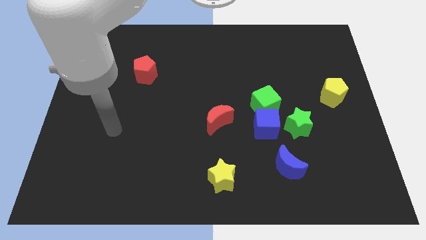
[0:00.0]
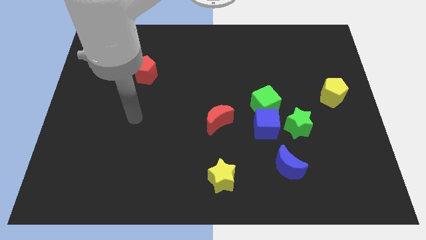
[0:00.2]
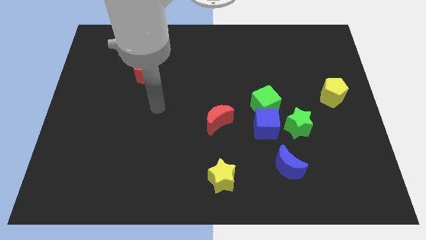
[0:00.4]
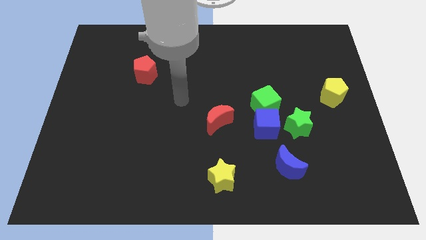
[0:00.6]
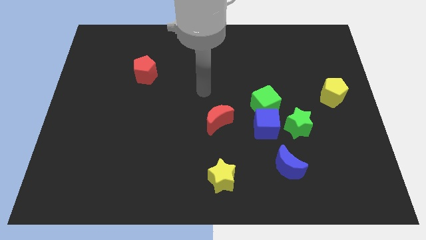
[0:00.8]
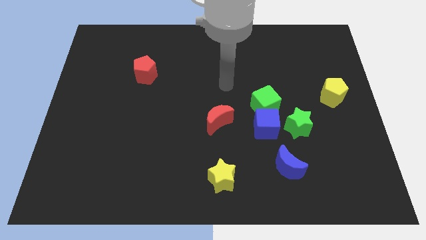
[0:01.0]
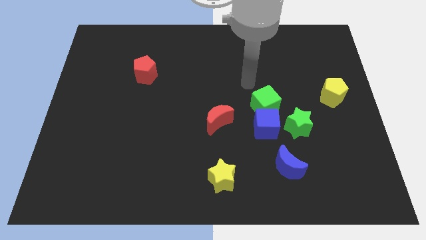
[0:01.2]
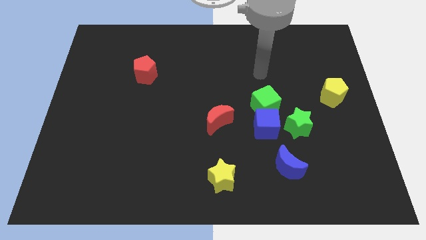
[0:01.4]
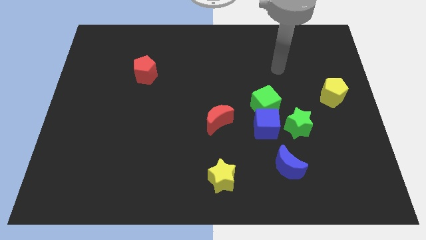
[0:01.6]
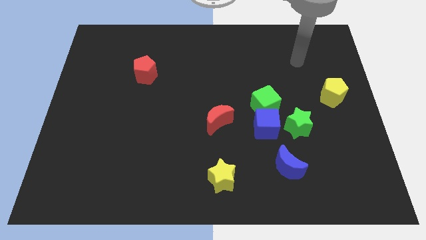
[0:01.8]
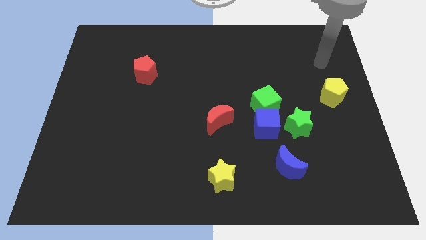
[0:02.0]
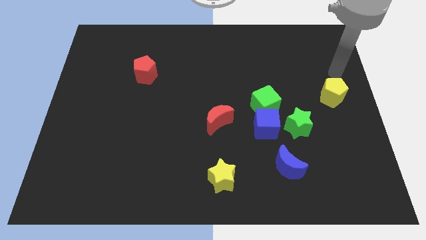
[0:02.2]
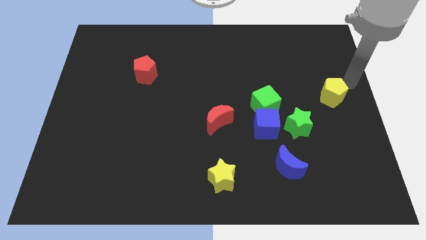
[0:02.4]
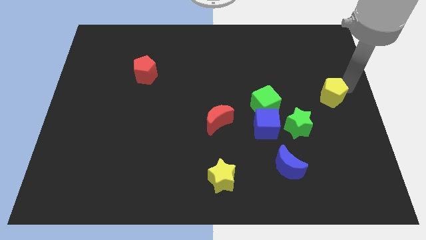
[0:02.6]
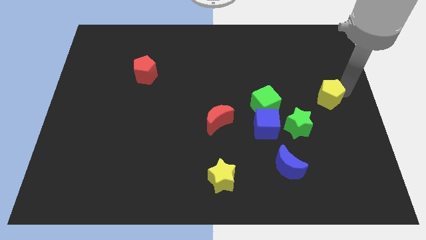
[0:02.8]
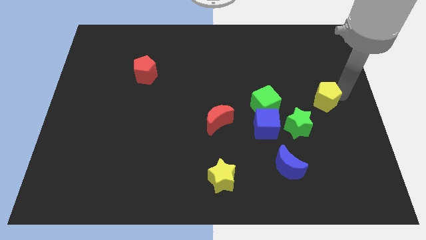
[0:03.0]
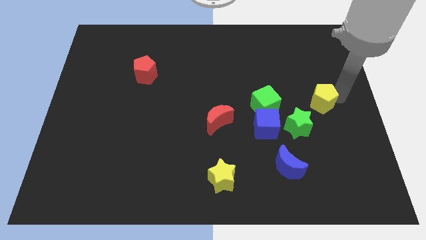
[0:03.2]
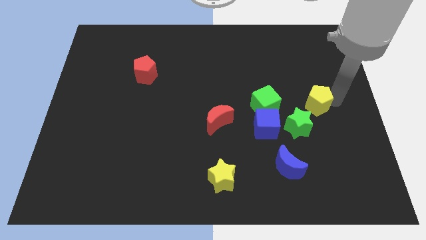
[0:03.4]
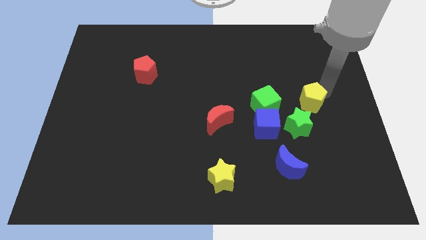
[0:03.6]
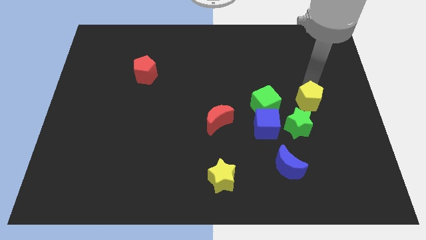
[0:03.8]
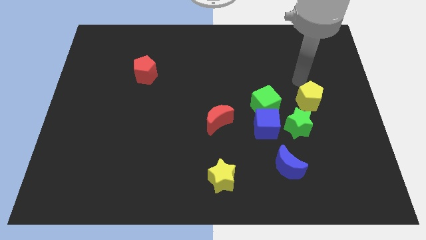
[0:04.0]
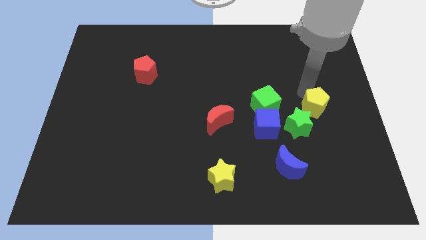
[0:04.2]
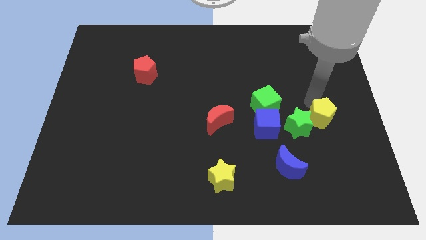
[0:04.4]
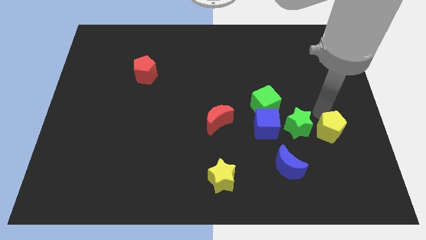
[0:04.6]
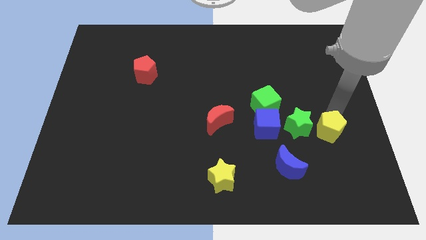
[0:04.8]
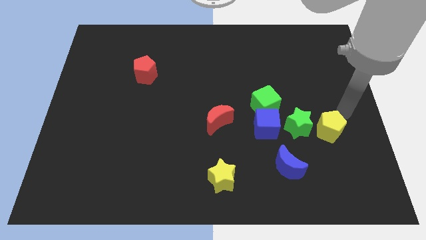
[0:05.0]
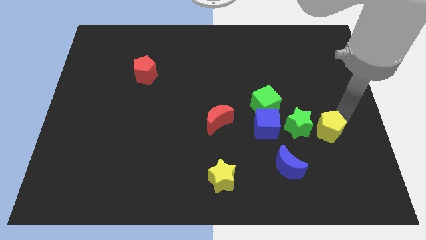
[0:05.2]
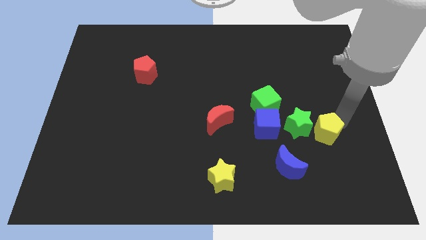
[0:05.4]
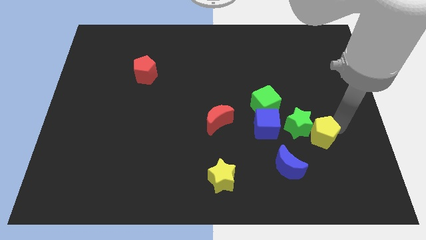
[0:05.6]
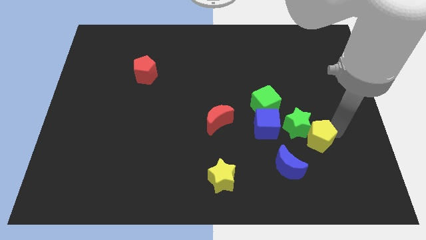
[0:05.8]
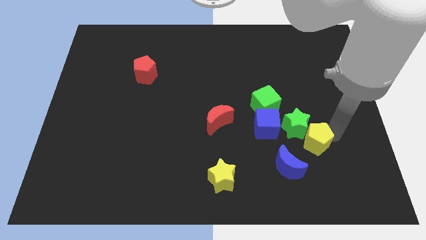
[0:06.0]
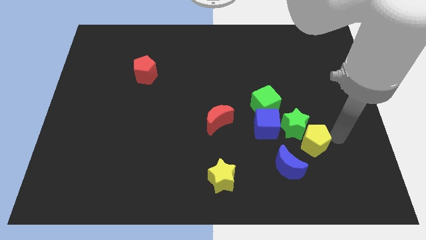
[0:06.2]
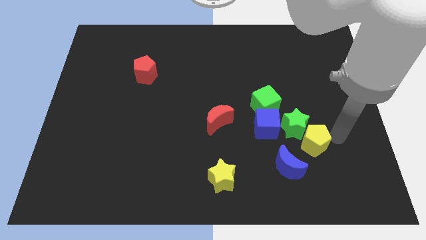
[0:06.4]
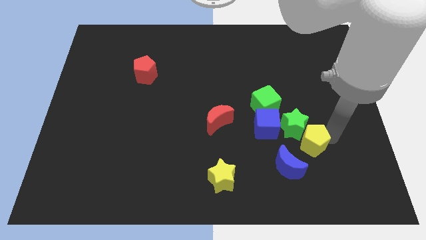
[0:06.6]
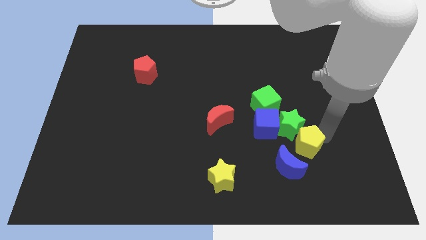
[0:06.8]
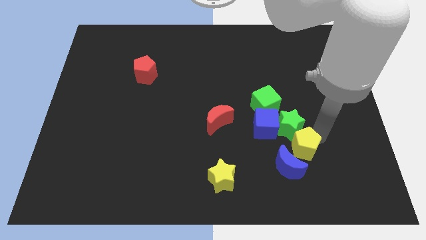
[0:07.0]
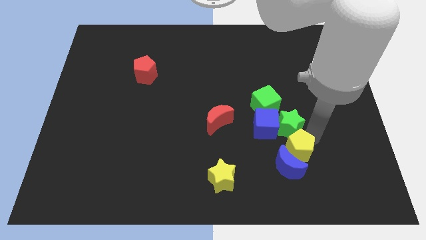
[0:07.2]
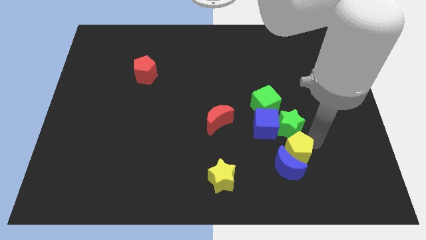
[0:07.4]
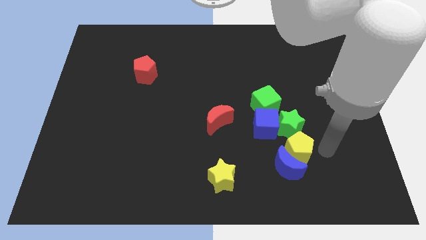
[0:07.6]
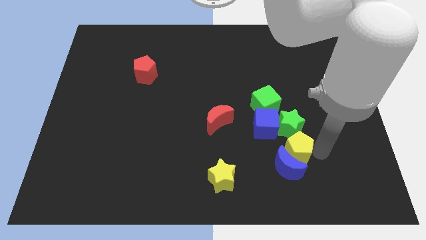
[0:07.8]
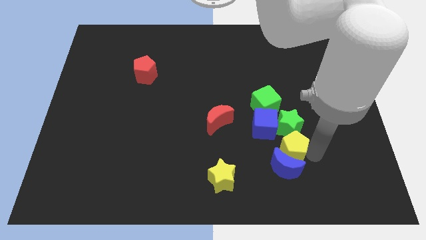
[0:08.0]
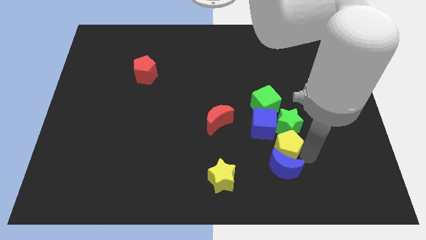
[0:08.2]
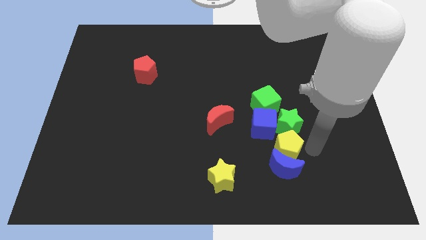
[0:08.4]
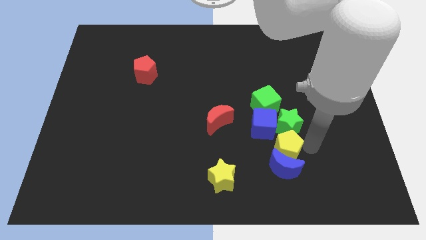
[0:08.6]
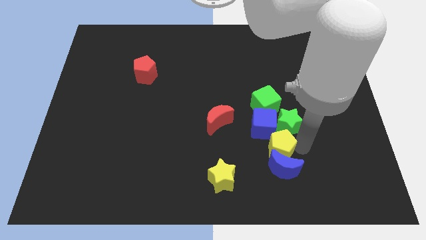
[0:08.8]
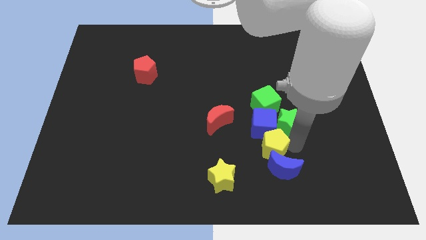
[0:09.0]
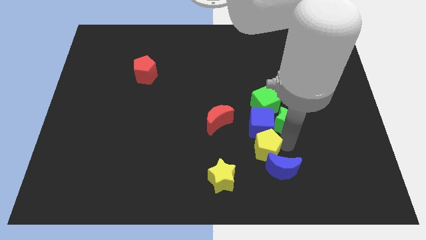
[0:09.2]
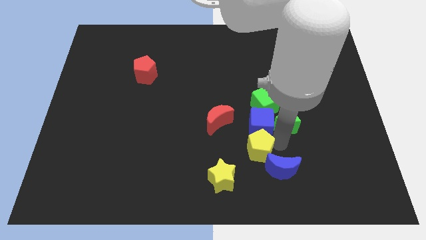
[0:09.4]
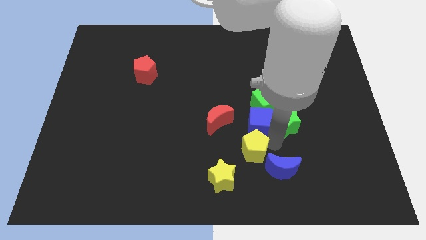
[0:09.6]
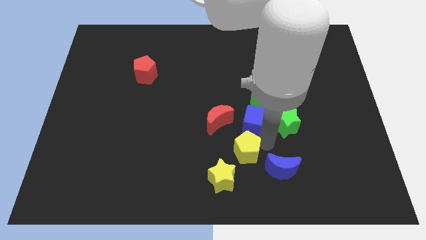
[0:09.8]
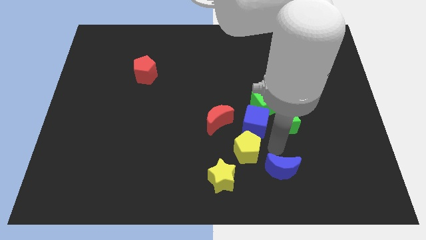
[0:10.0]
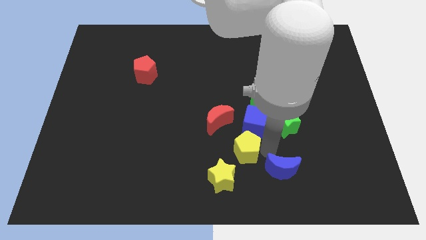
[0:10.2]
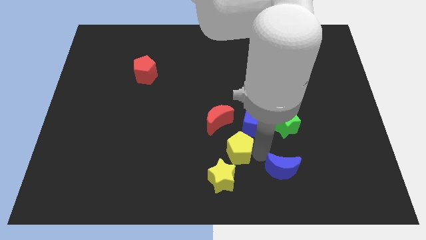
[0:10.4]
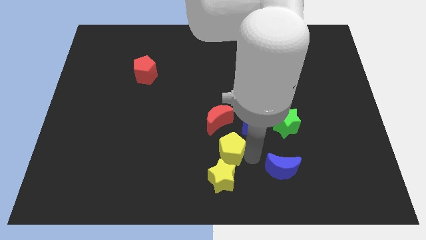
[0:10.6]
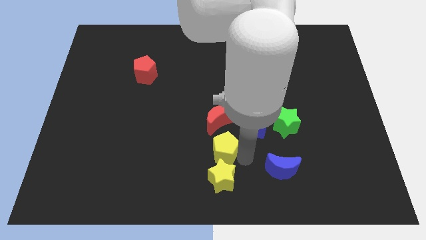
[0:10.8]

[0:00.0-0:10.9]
put the yellow pentagon to the top left side of the yellow star

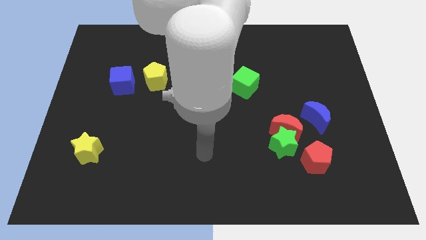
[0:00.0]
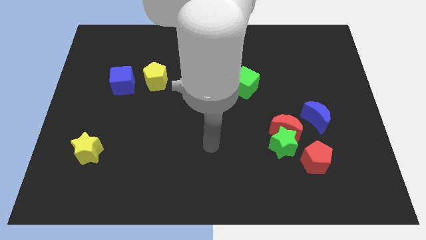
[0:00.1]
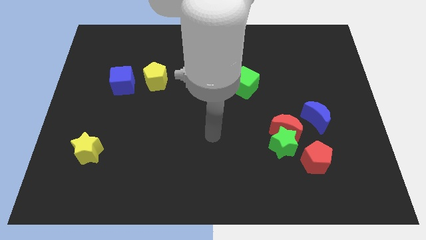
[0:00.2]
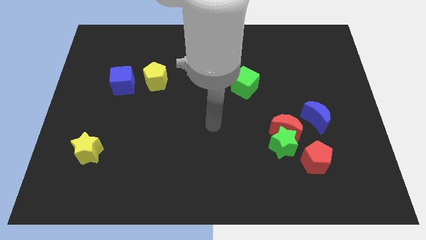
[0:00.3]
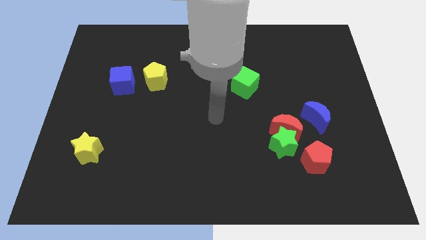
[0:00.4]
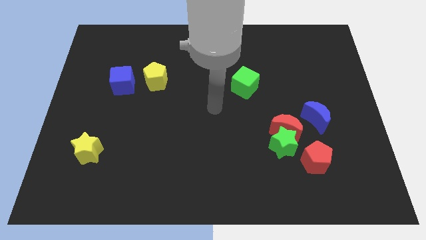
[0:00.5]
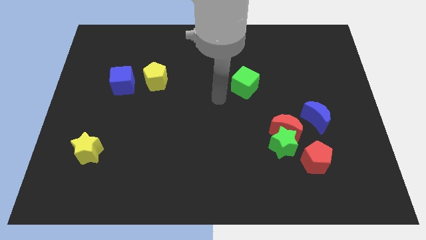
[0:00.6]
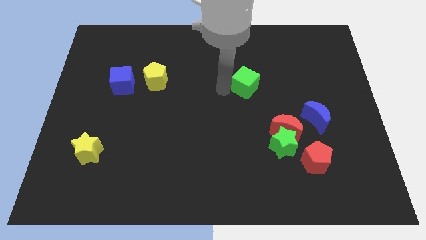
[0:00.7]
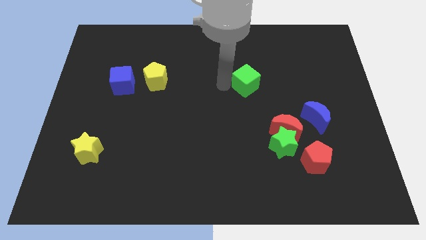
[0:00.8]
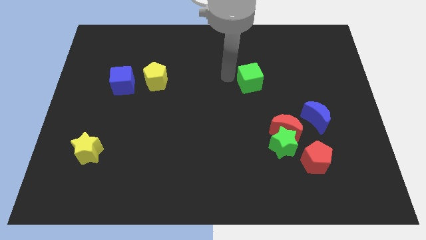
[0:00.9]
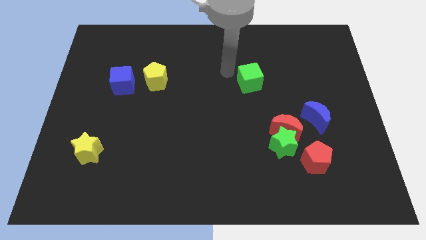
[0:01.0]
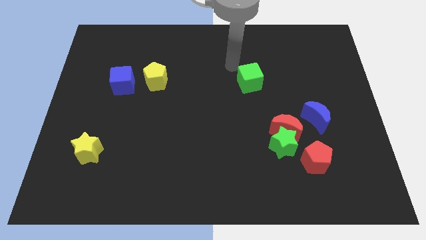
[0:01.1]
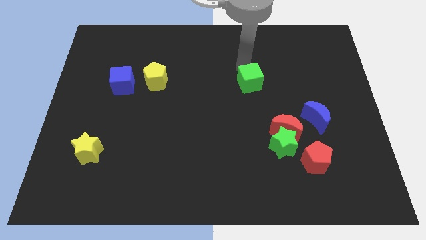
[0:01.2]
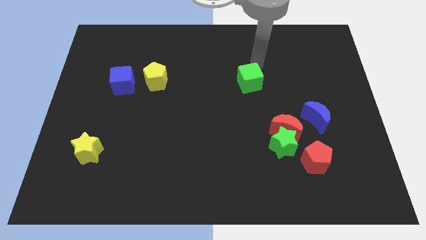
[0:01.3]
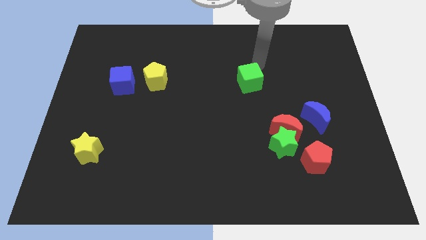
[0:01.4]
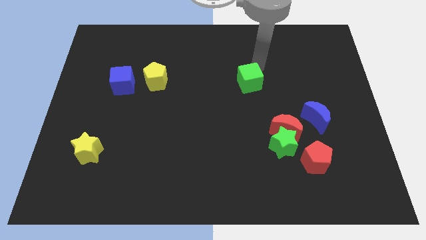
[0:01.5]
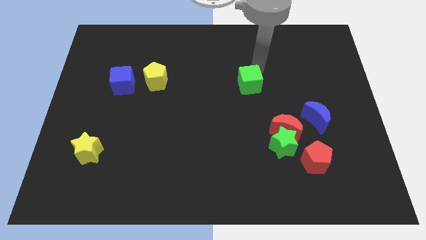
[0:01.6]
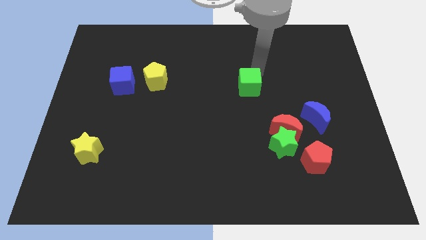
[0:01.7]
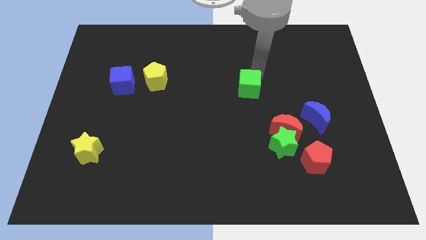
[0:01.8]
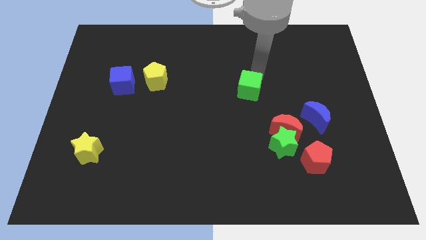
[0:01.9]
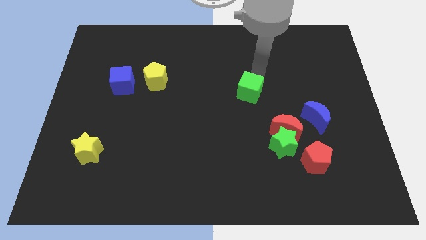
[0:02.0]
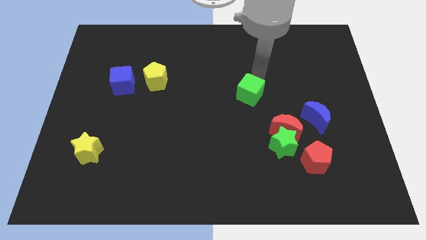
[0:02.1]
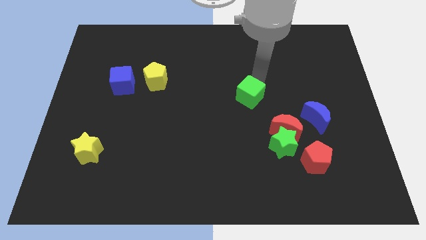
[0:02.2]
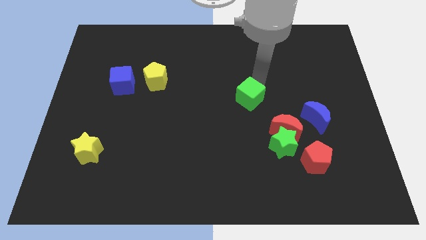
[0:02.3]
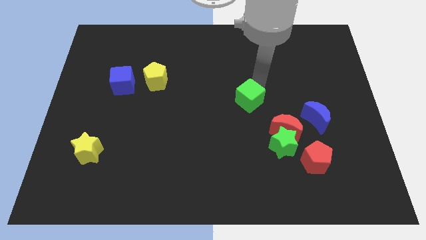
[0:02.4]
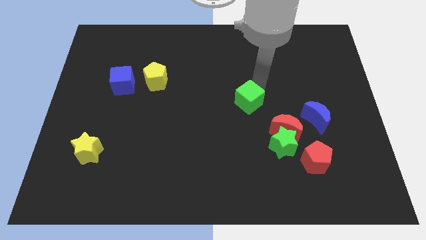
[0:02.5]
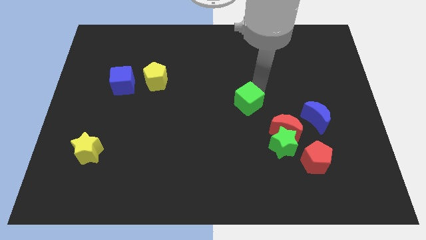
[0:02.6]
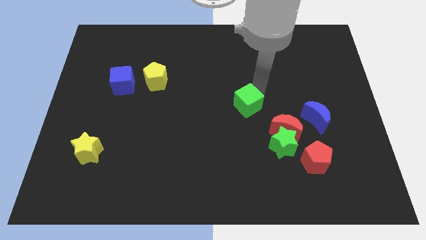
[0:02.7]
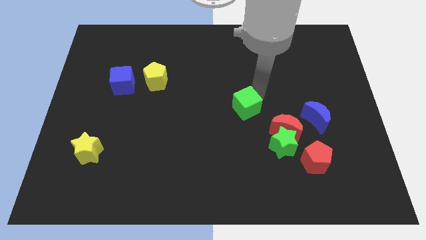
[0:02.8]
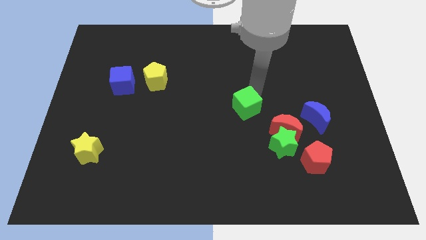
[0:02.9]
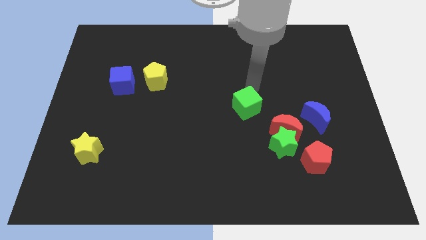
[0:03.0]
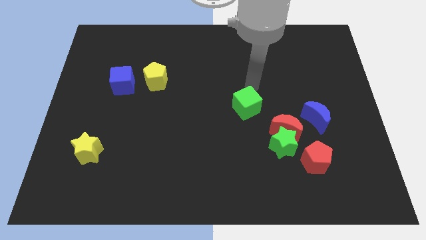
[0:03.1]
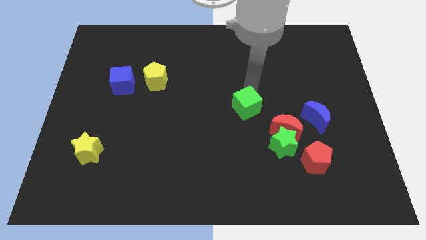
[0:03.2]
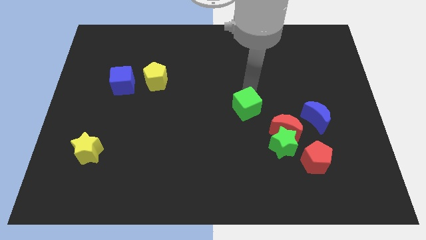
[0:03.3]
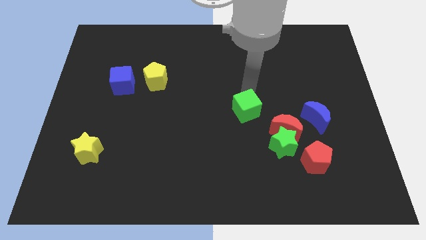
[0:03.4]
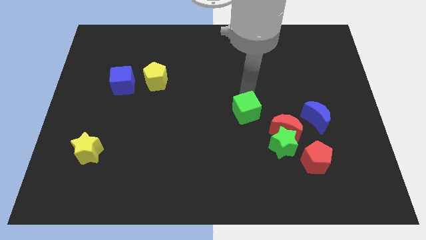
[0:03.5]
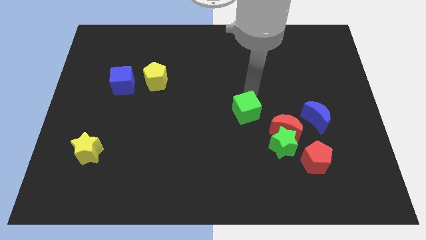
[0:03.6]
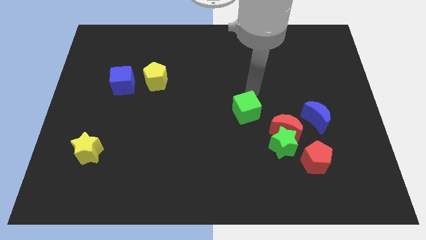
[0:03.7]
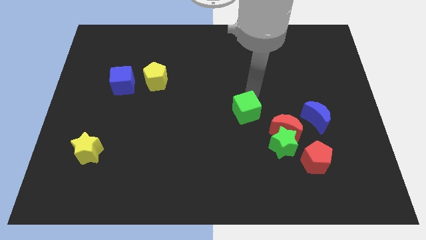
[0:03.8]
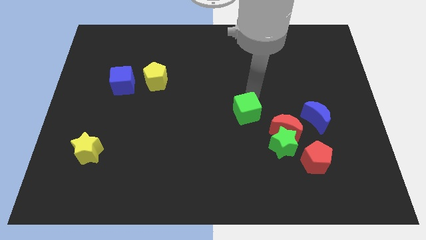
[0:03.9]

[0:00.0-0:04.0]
slide the green cube to the left side of the red moon
